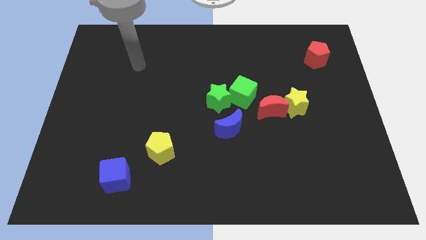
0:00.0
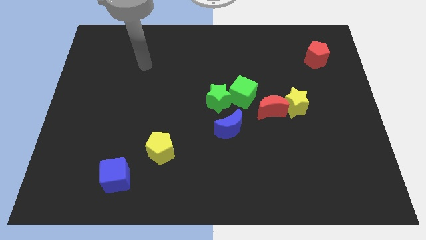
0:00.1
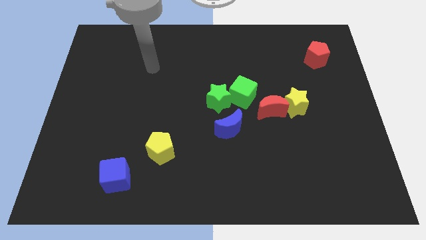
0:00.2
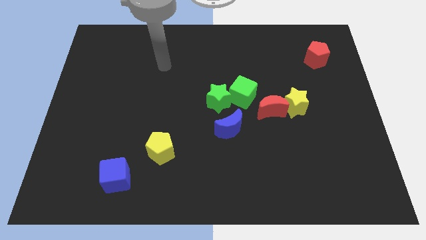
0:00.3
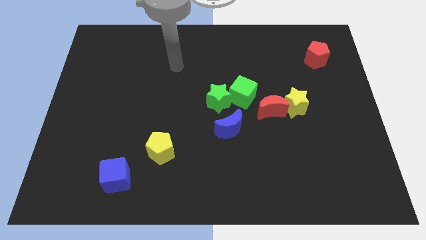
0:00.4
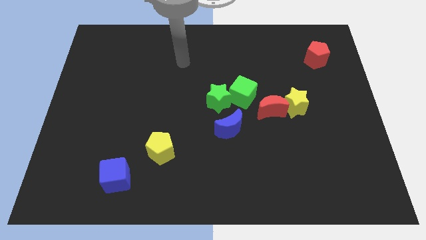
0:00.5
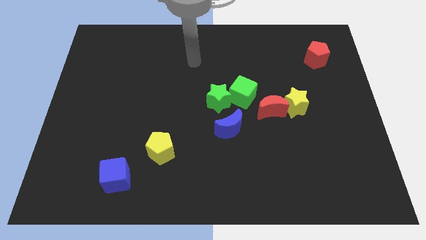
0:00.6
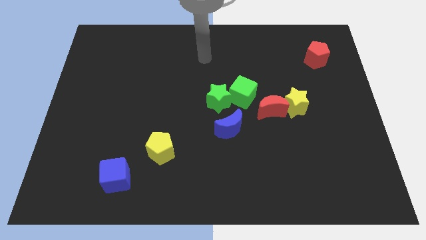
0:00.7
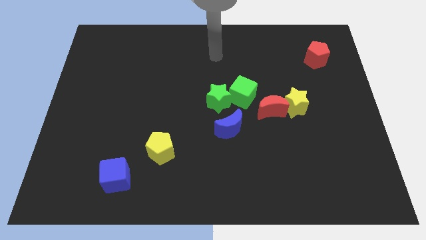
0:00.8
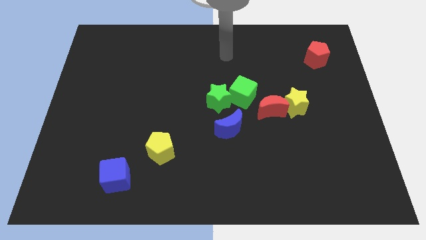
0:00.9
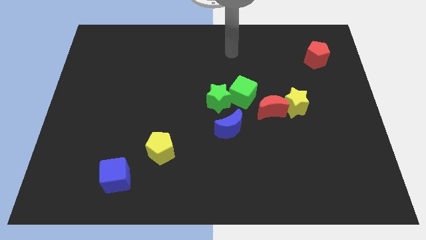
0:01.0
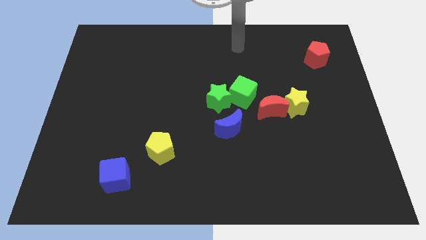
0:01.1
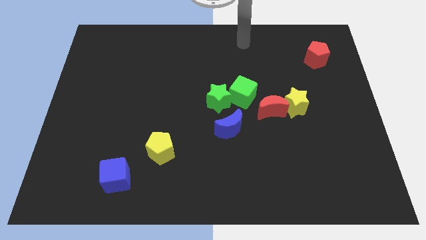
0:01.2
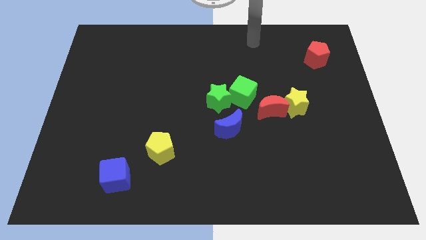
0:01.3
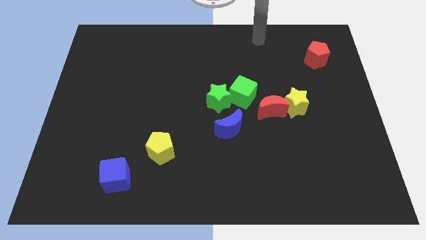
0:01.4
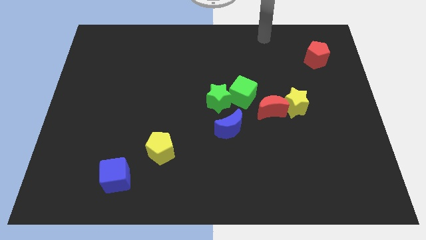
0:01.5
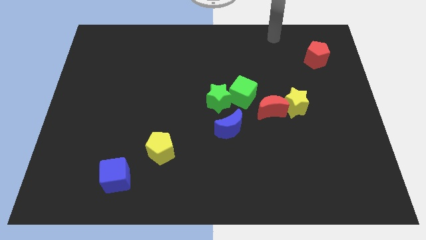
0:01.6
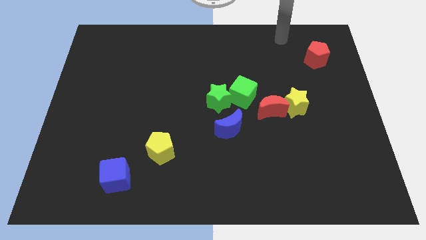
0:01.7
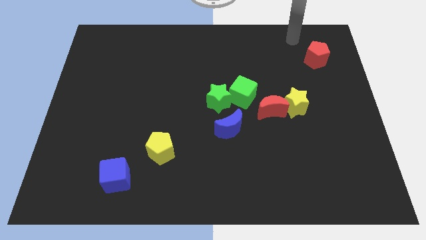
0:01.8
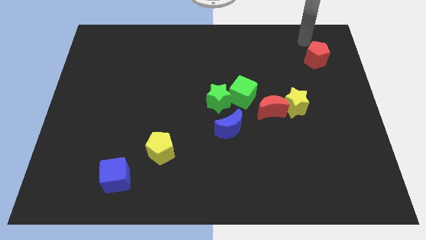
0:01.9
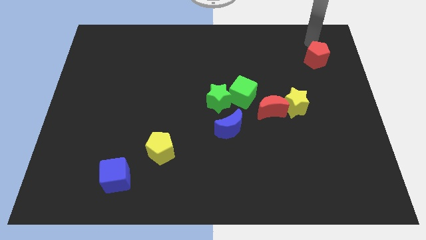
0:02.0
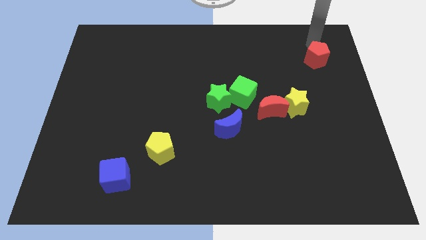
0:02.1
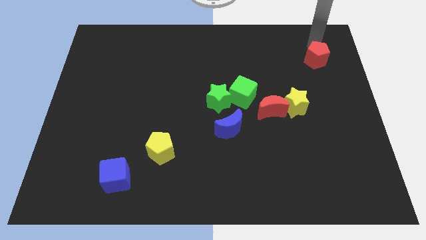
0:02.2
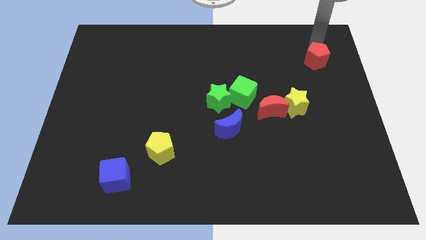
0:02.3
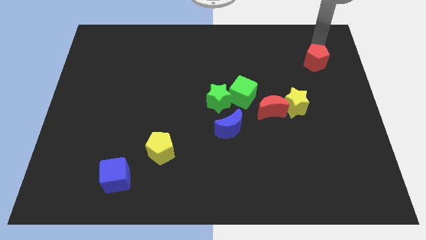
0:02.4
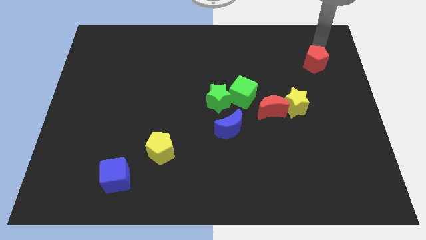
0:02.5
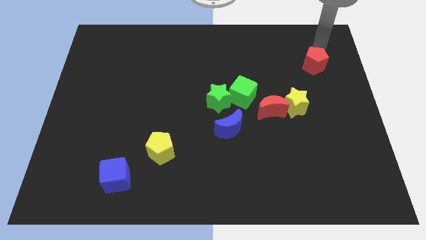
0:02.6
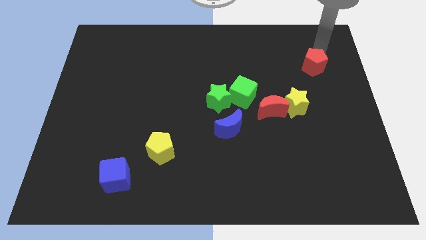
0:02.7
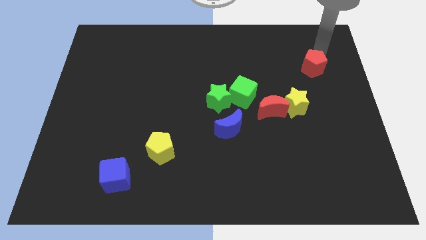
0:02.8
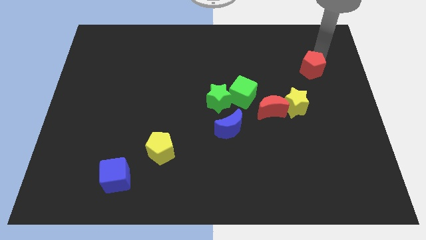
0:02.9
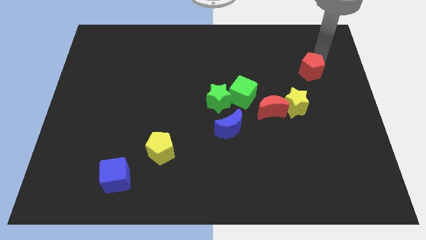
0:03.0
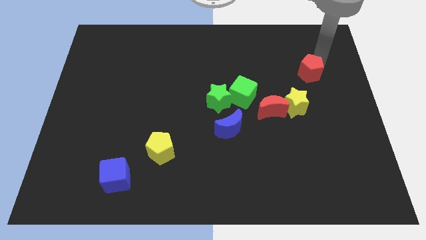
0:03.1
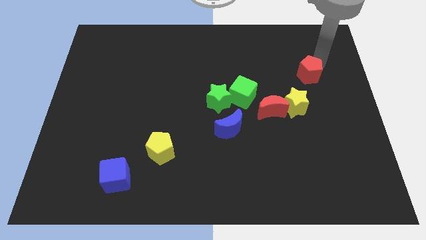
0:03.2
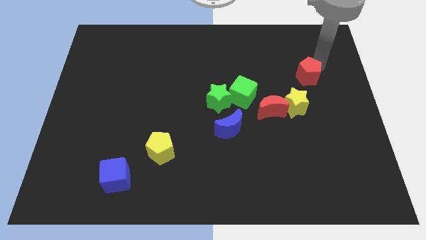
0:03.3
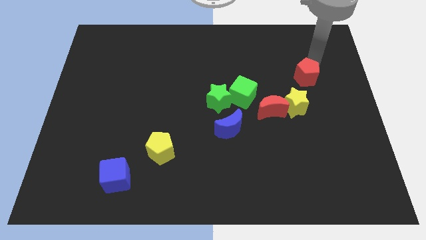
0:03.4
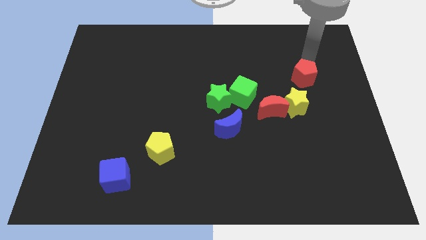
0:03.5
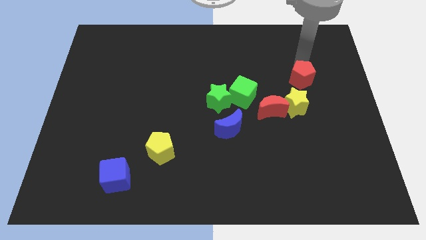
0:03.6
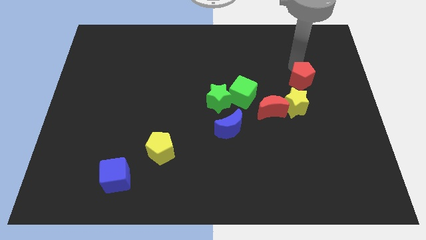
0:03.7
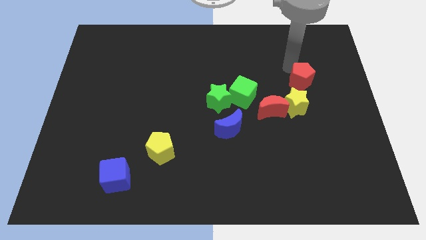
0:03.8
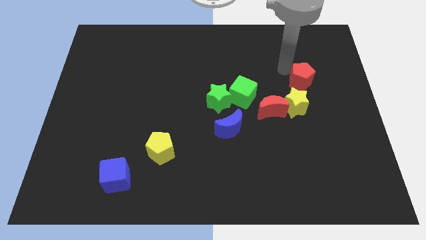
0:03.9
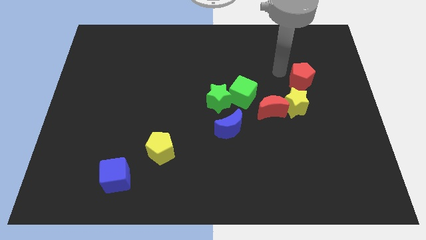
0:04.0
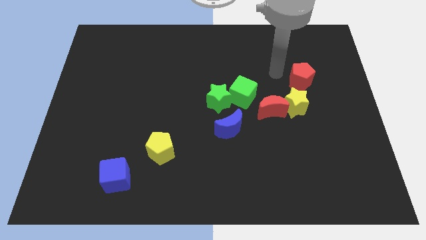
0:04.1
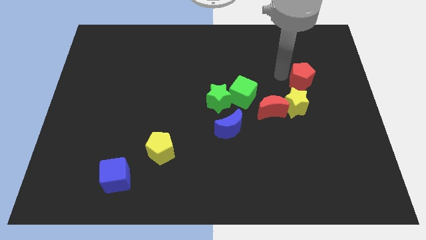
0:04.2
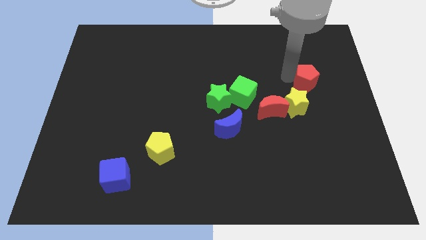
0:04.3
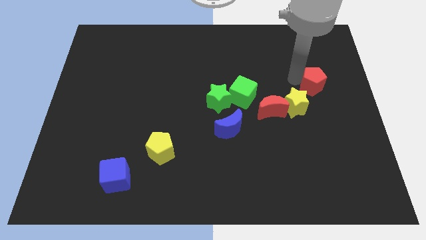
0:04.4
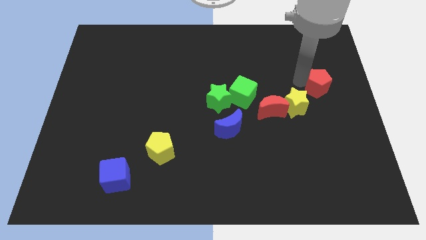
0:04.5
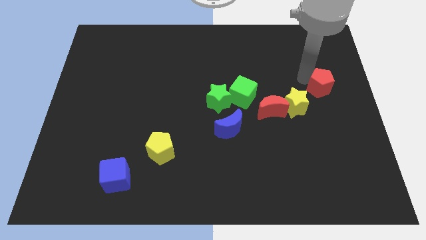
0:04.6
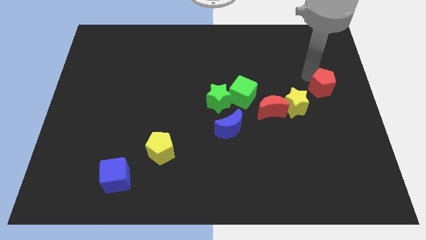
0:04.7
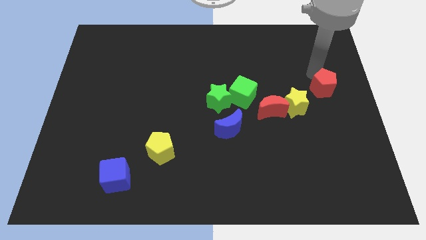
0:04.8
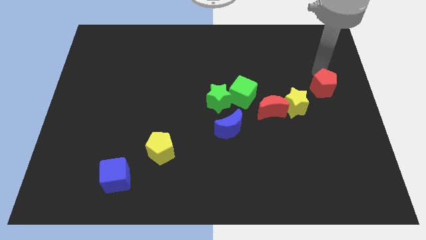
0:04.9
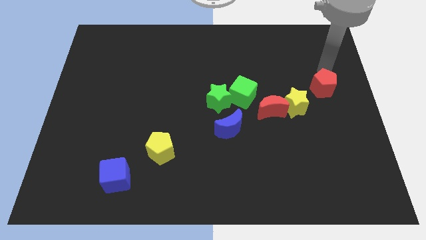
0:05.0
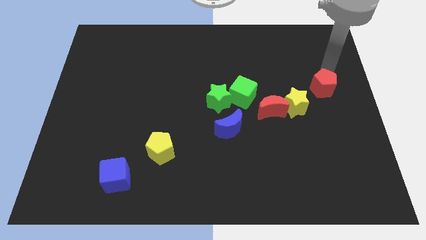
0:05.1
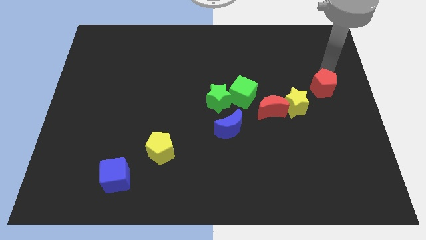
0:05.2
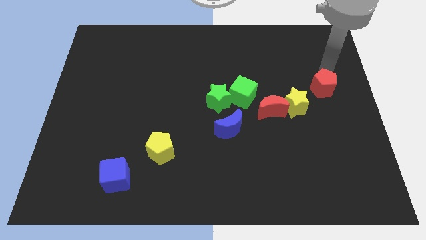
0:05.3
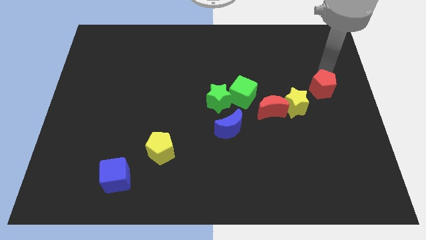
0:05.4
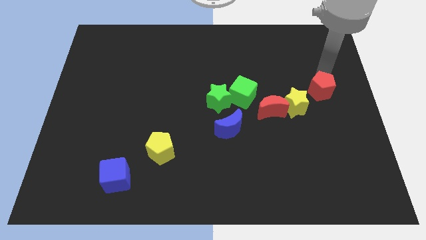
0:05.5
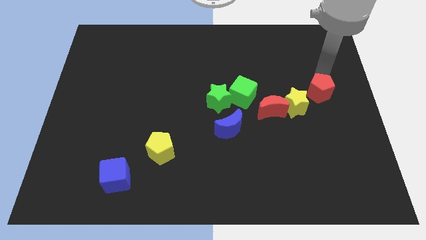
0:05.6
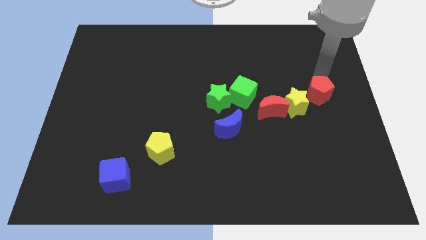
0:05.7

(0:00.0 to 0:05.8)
move the red pentagon to the right of the red moon

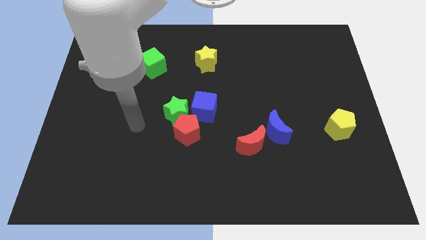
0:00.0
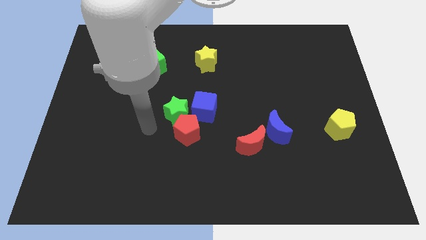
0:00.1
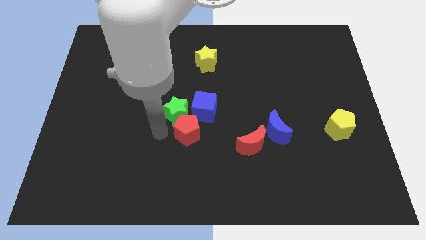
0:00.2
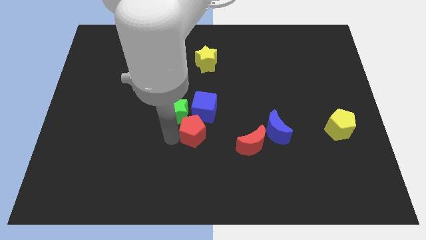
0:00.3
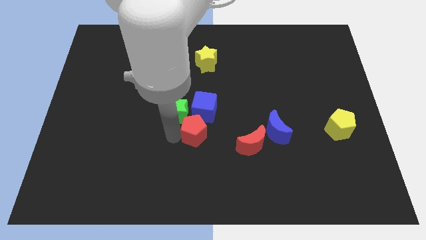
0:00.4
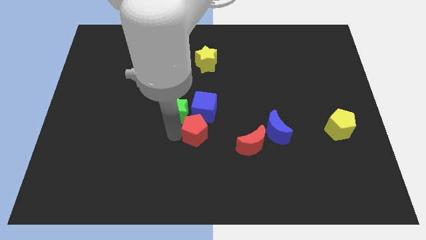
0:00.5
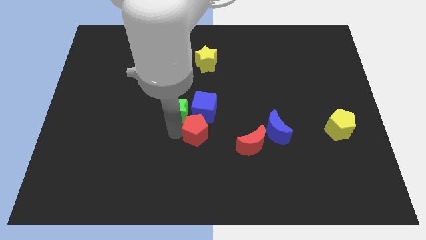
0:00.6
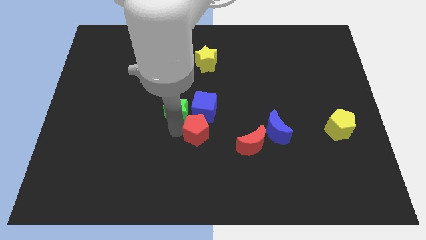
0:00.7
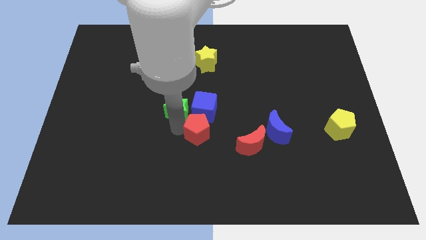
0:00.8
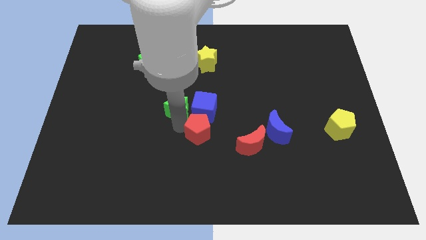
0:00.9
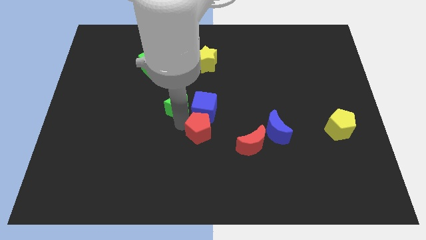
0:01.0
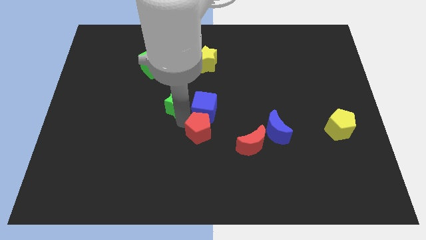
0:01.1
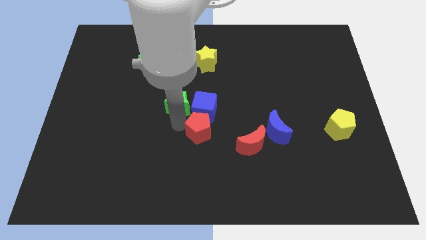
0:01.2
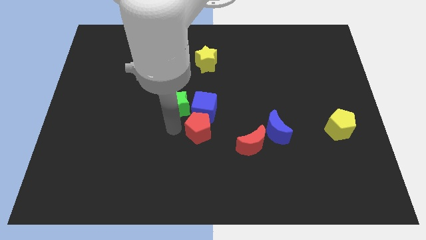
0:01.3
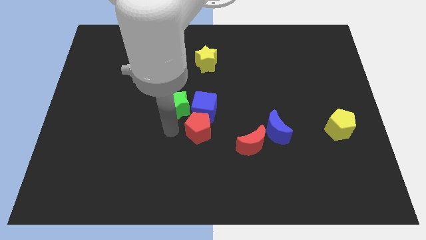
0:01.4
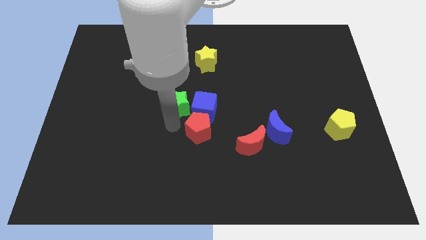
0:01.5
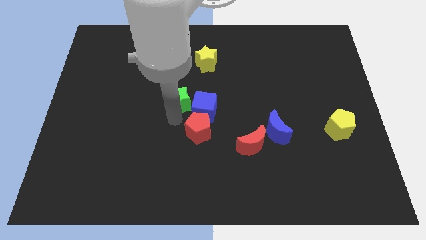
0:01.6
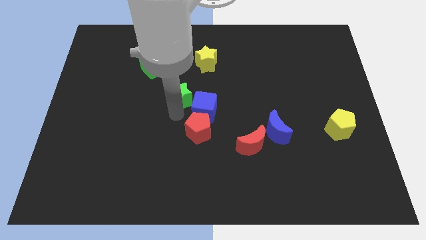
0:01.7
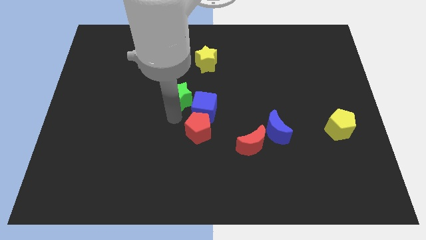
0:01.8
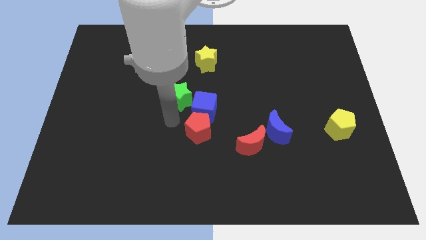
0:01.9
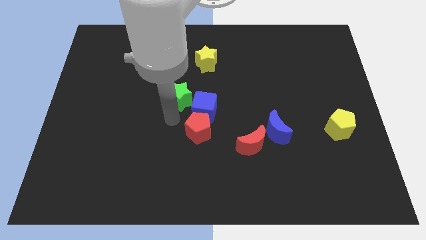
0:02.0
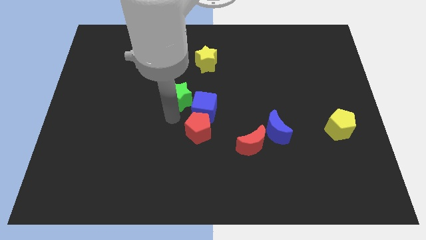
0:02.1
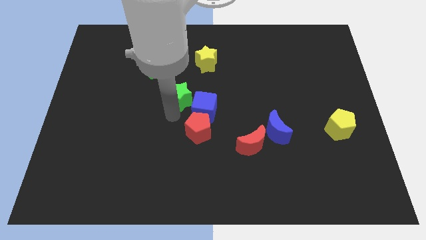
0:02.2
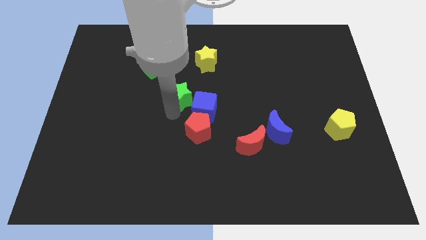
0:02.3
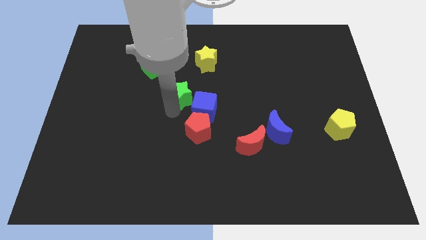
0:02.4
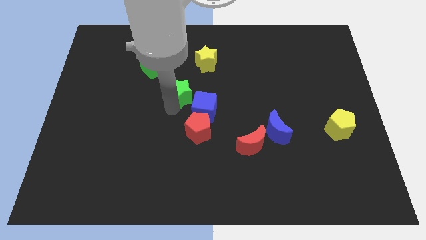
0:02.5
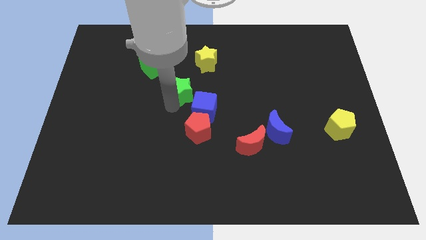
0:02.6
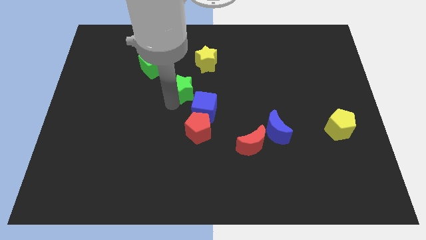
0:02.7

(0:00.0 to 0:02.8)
put the green star to the bottom left of the yellow star
